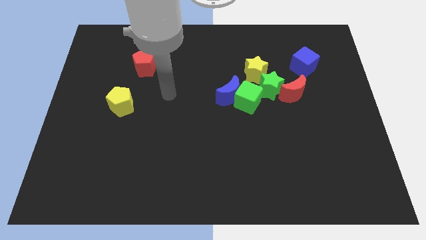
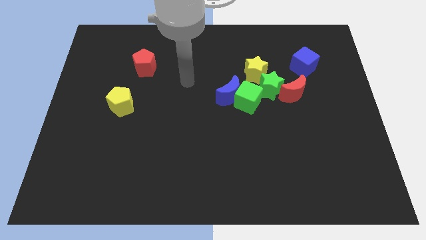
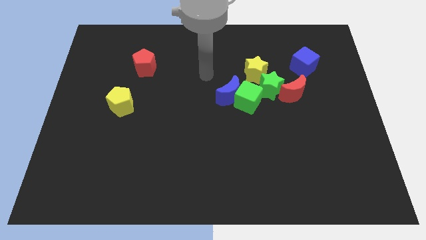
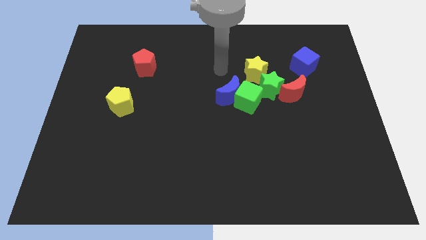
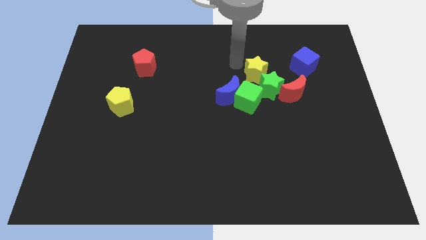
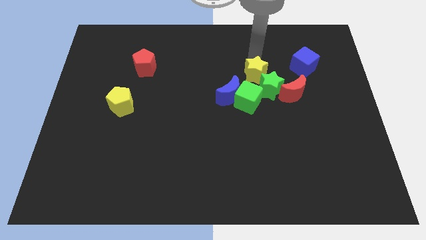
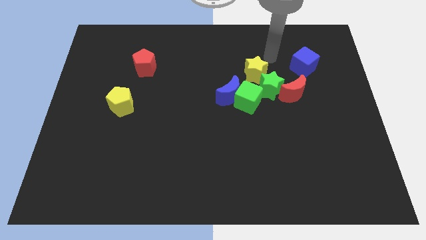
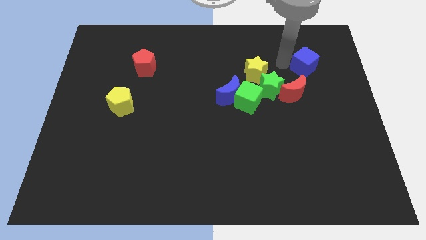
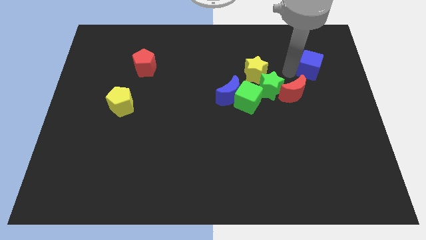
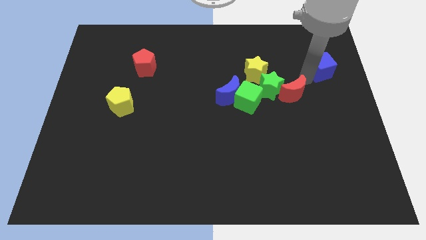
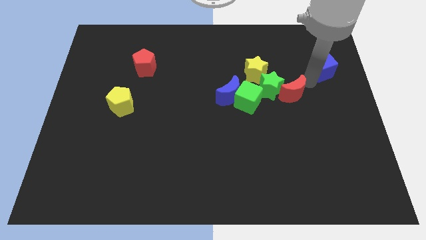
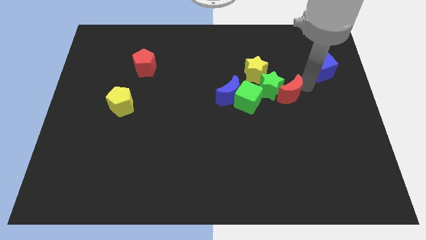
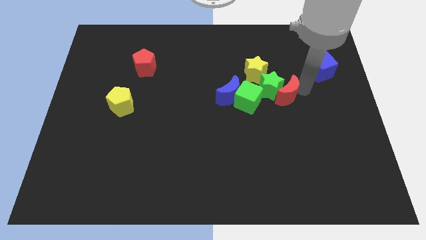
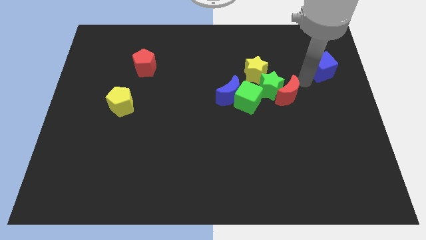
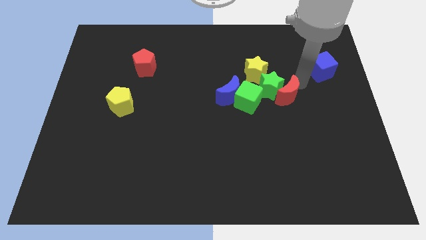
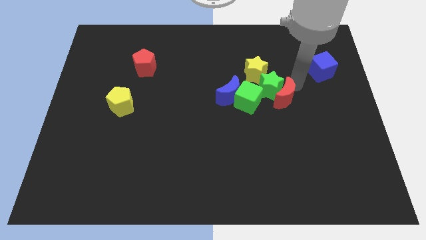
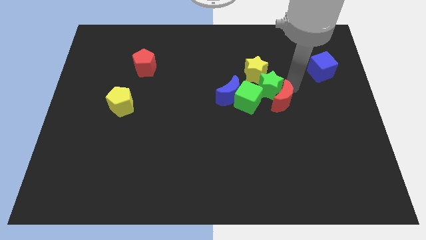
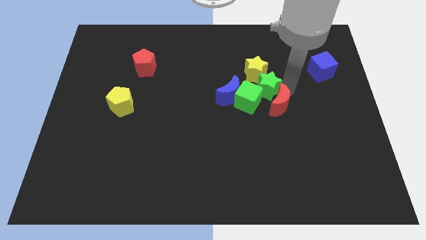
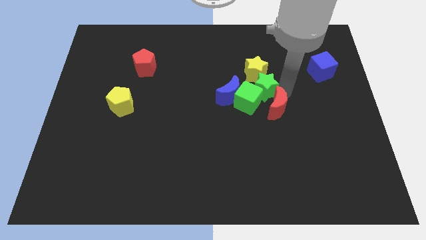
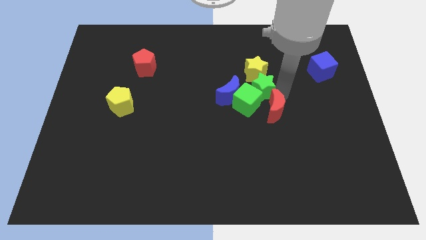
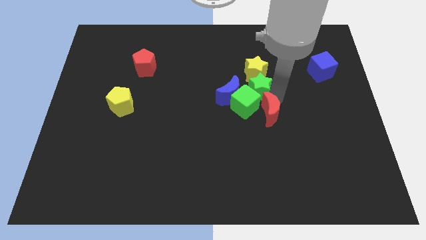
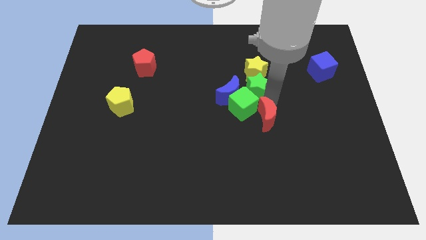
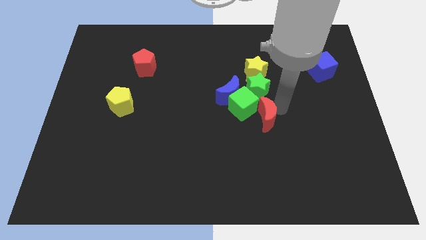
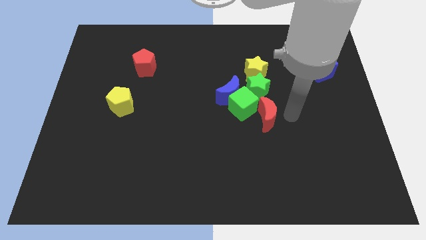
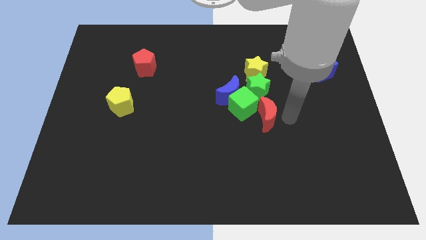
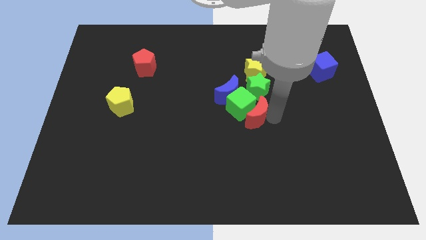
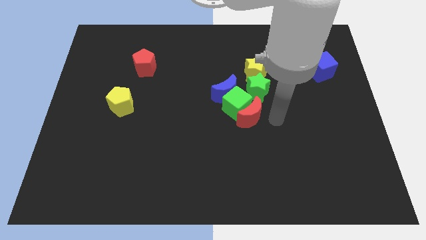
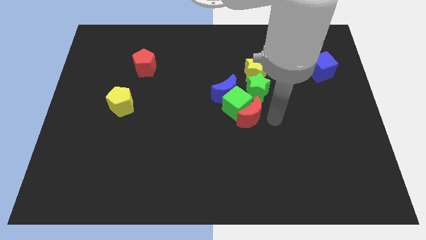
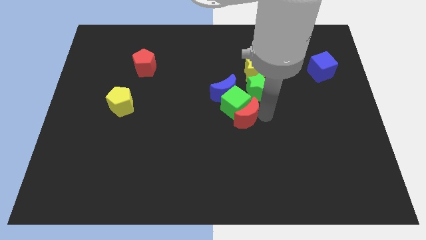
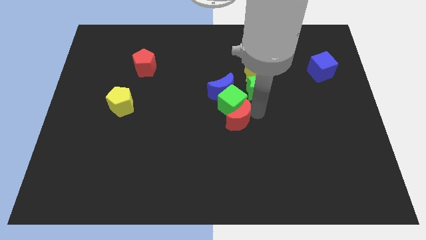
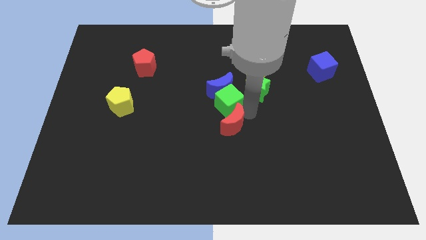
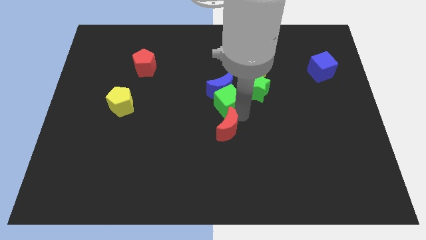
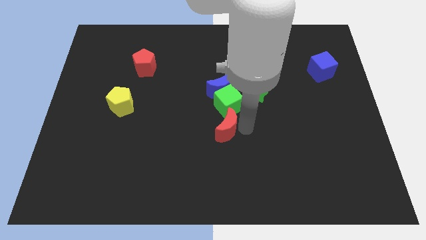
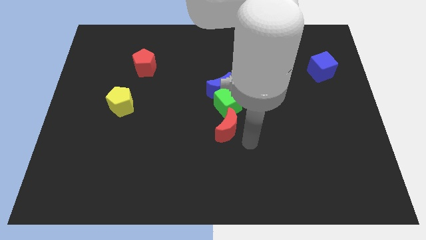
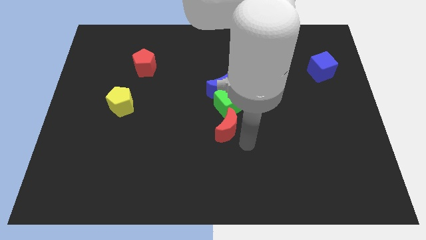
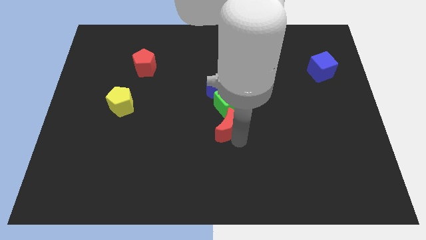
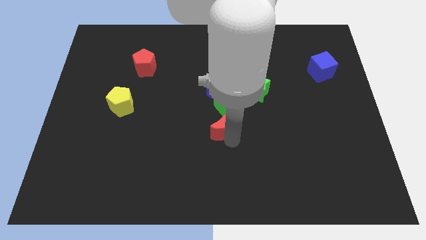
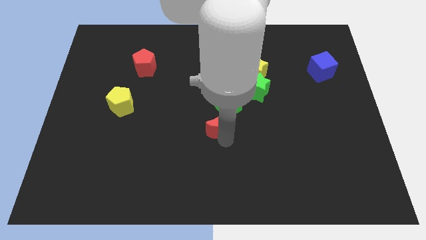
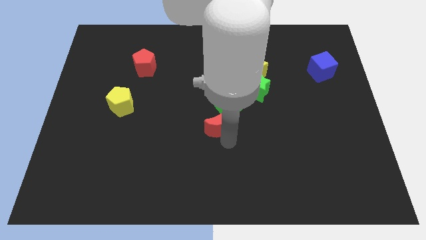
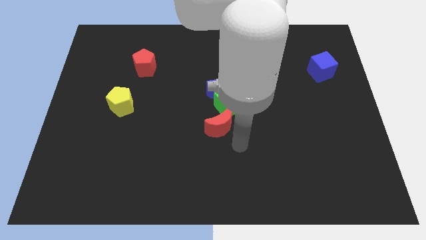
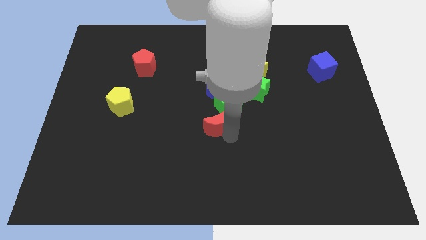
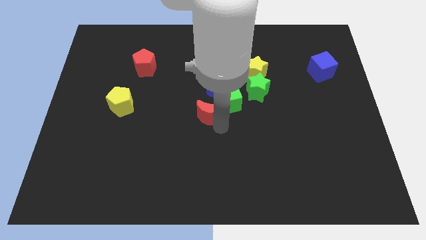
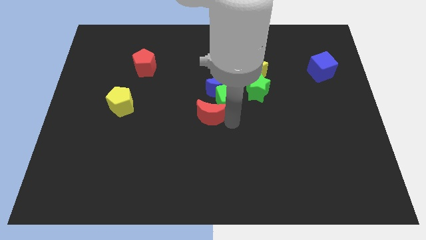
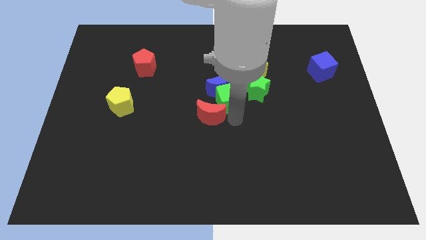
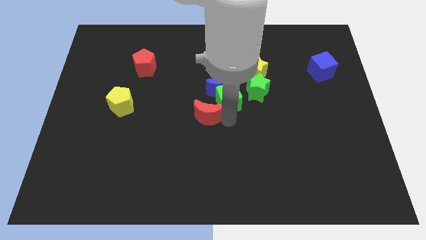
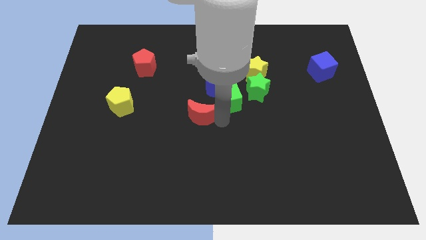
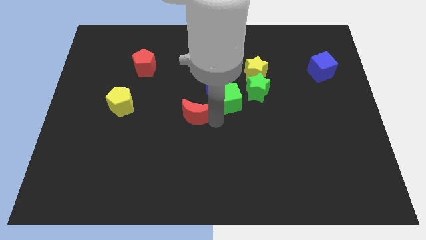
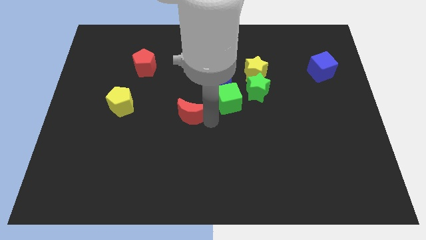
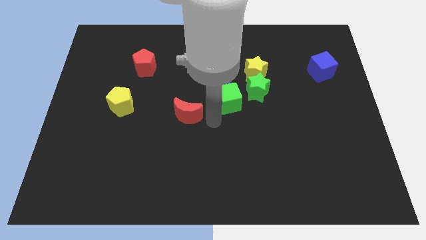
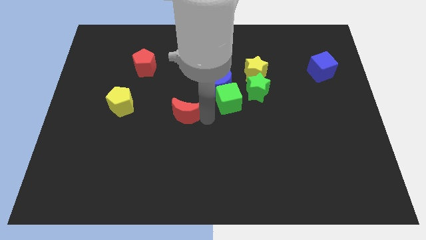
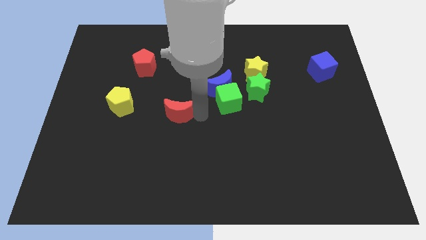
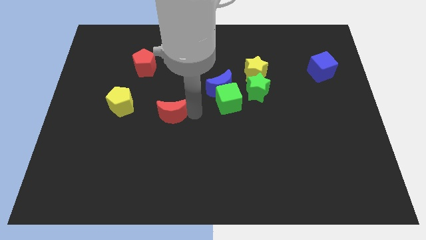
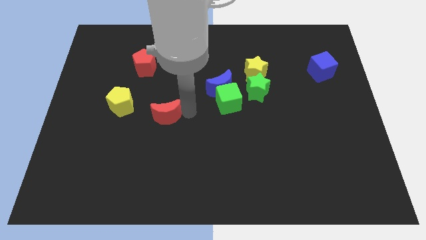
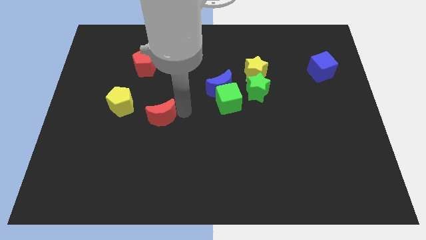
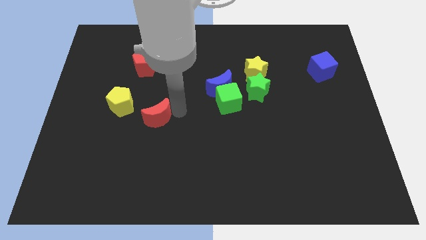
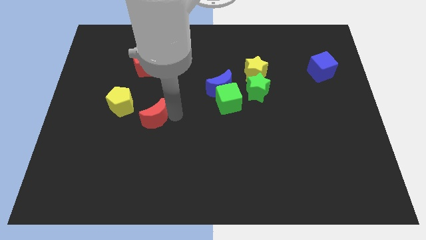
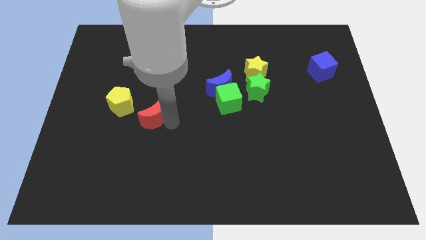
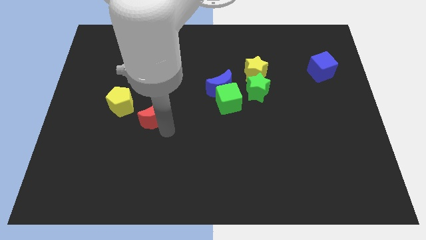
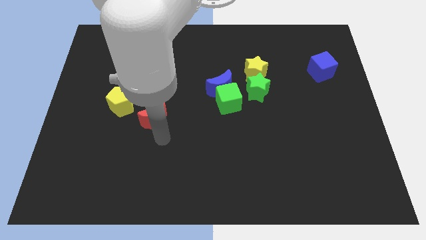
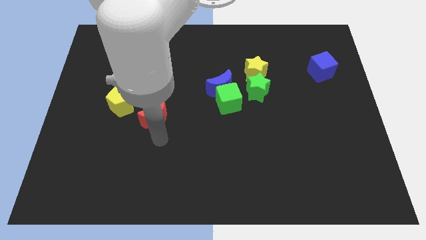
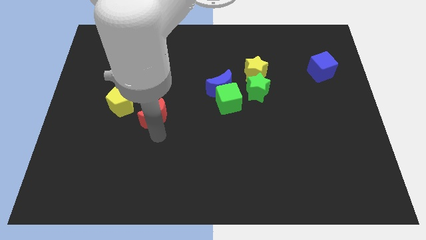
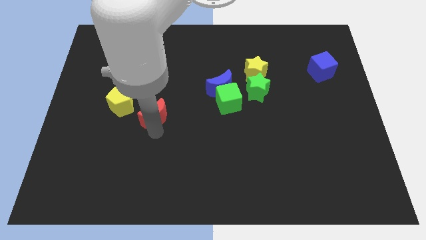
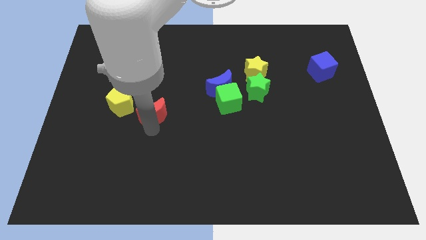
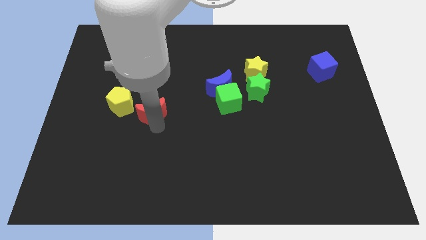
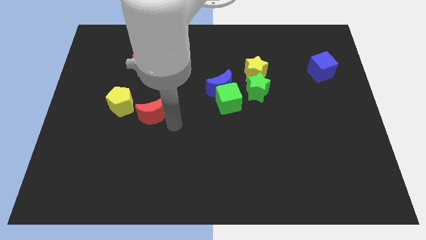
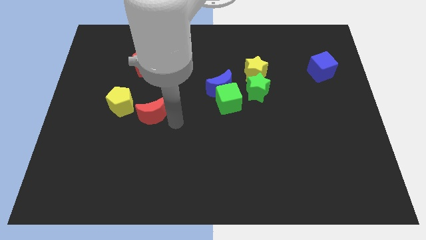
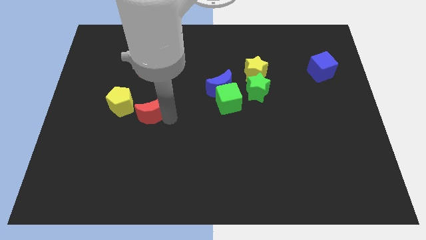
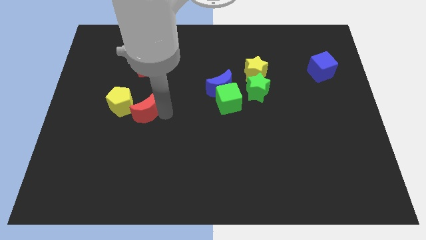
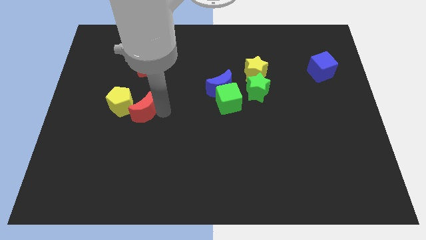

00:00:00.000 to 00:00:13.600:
slide the red moon next to the yellow pentagon

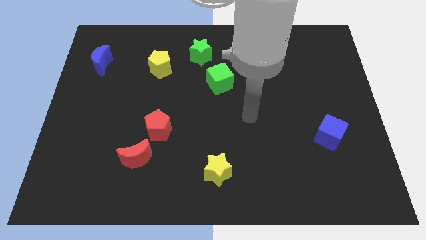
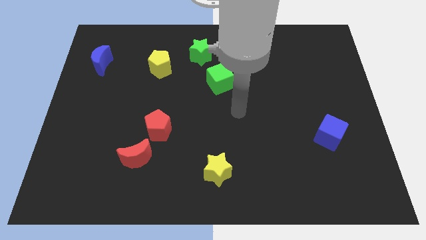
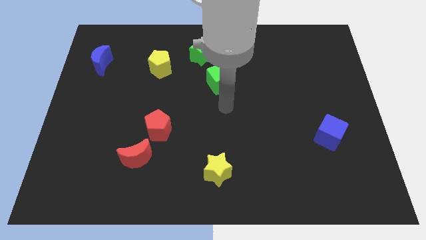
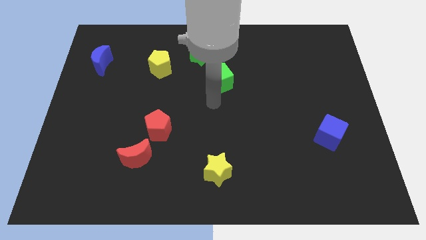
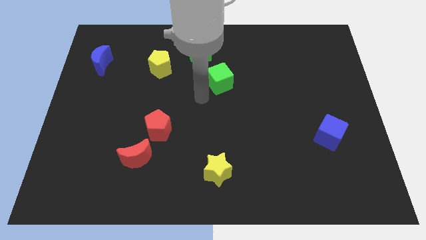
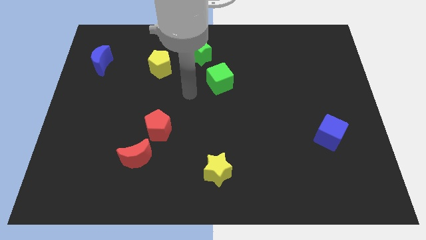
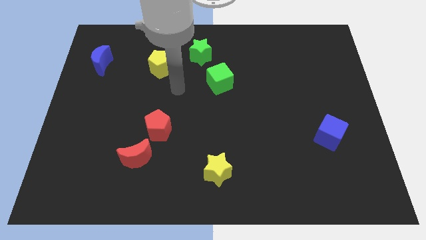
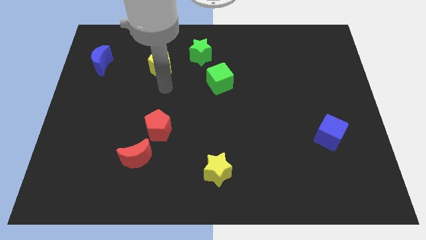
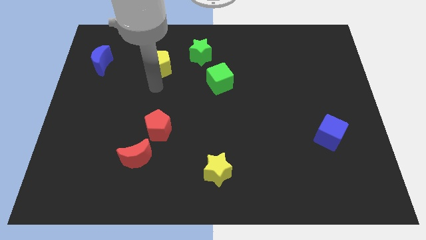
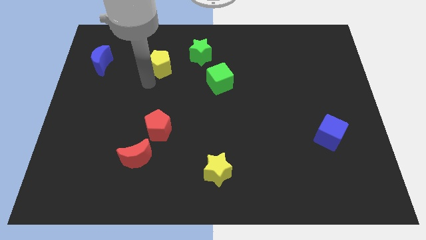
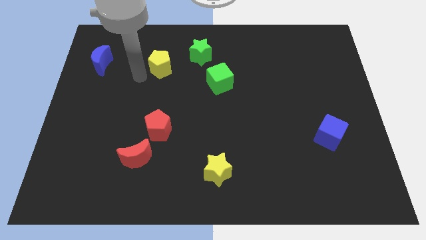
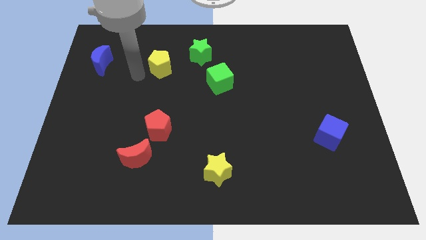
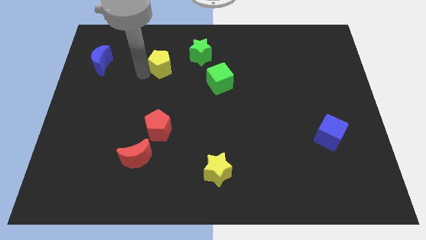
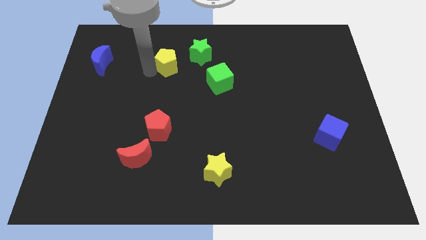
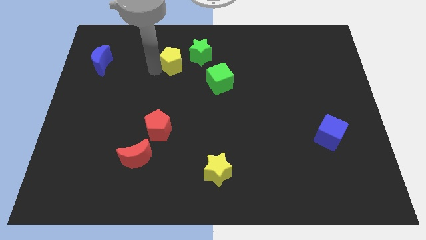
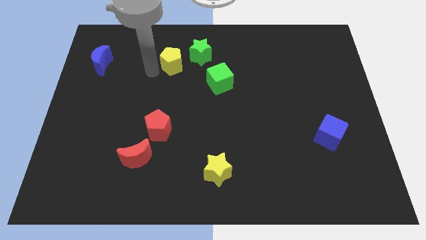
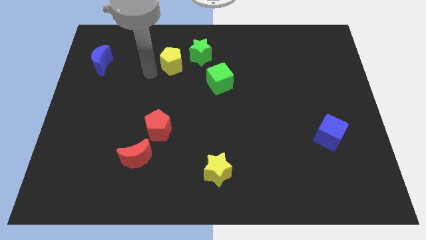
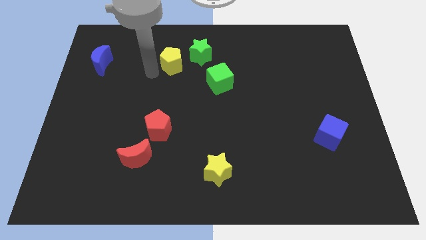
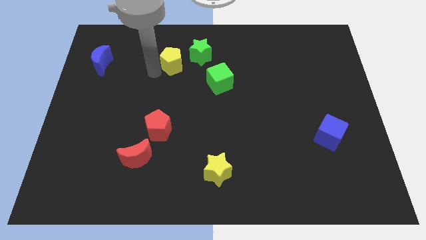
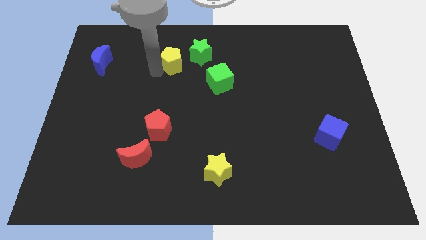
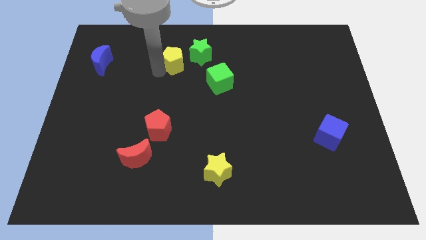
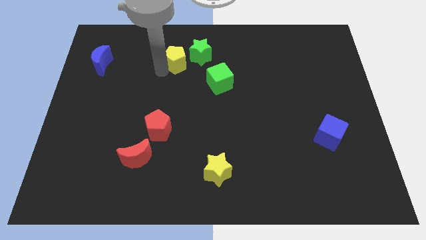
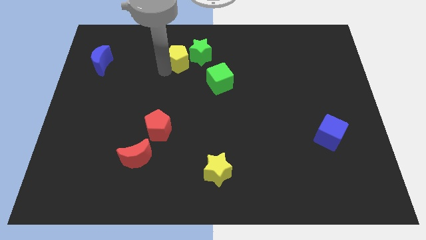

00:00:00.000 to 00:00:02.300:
move the yellow pentagon next to the green star

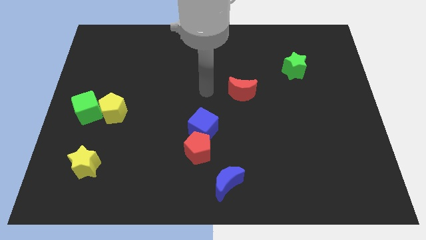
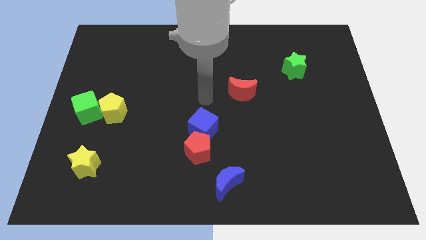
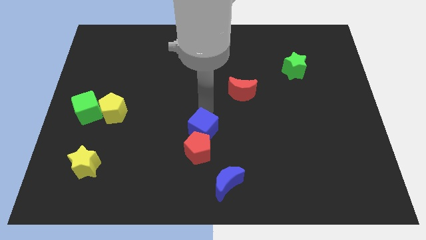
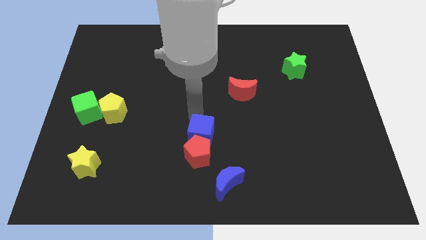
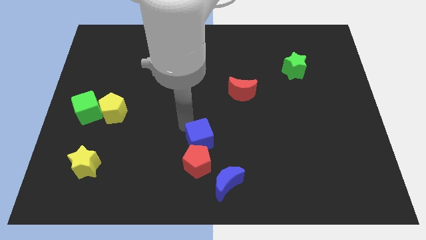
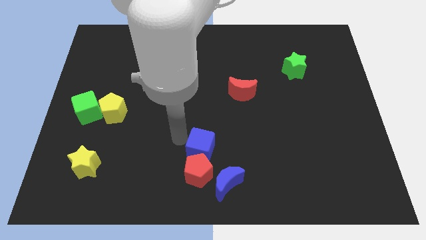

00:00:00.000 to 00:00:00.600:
push the red pentagon to the blue moon
